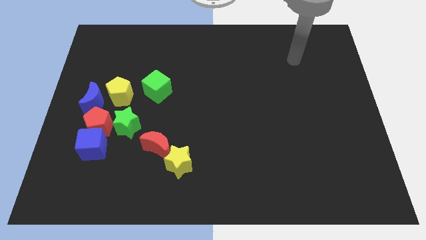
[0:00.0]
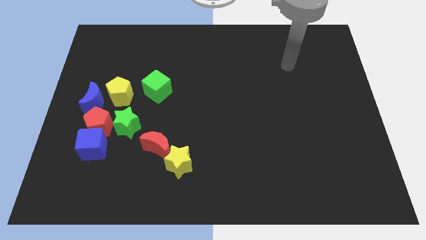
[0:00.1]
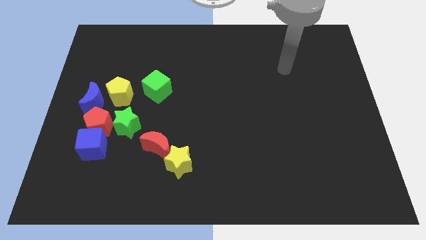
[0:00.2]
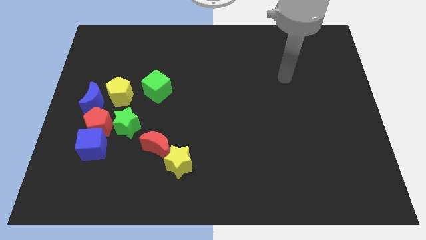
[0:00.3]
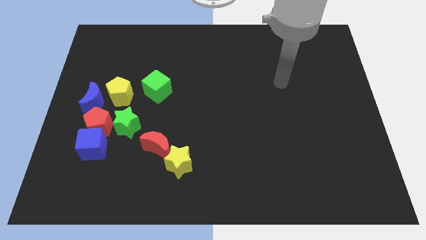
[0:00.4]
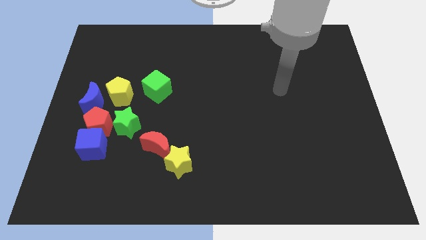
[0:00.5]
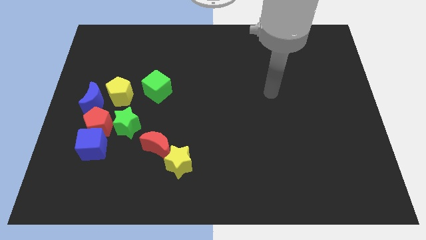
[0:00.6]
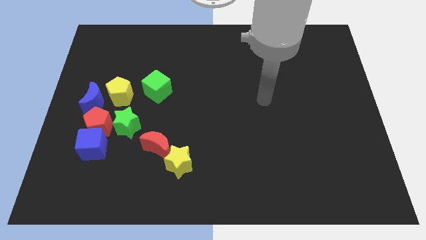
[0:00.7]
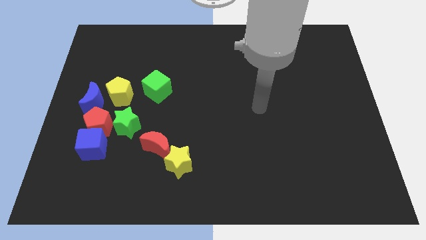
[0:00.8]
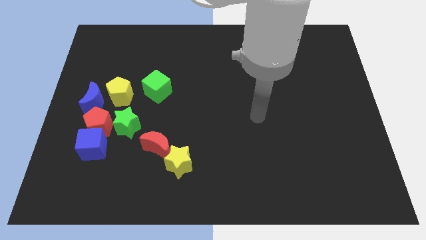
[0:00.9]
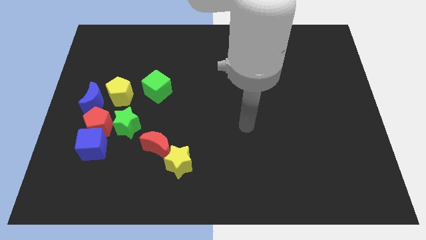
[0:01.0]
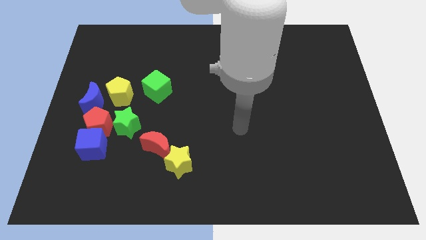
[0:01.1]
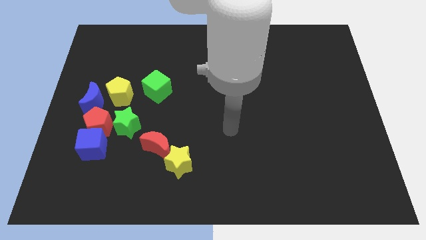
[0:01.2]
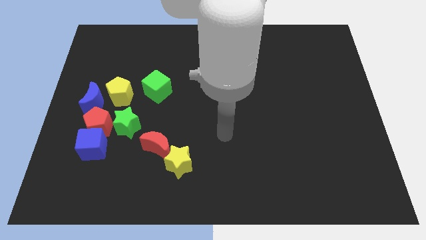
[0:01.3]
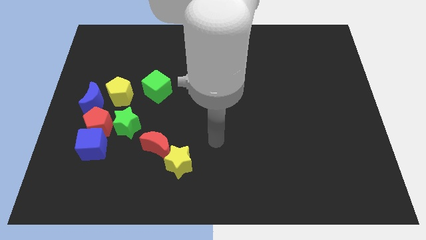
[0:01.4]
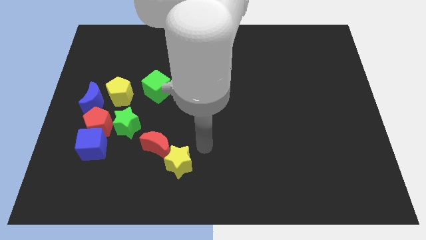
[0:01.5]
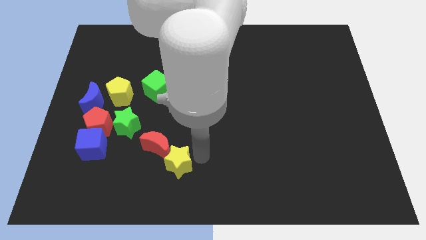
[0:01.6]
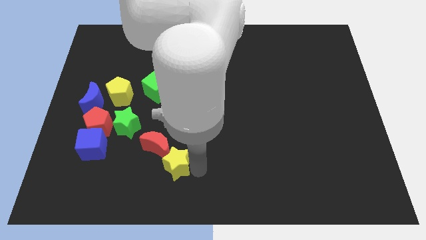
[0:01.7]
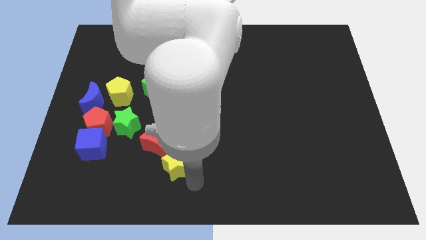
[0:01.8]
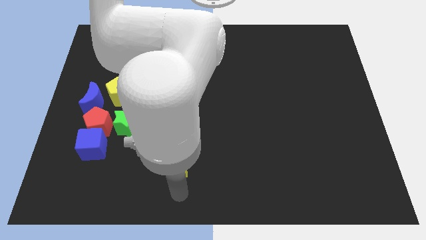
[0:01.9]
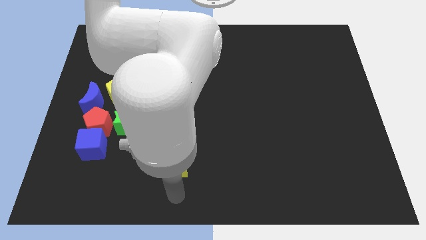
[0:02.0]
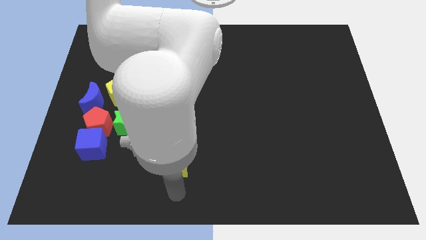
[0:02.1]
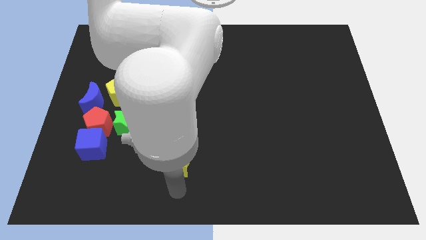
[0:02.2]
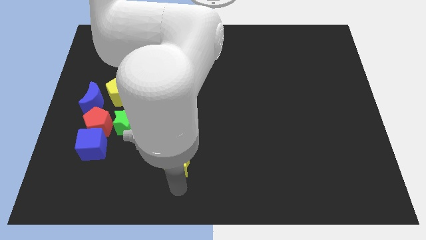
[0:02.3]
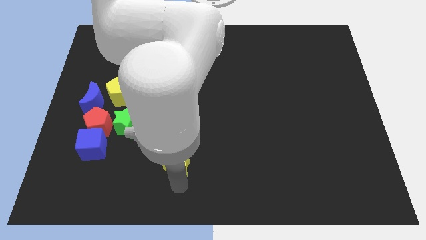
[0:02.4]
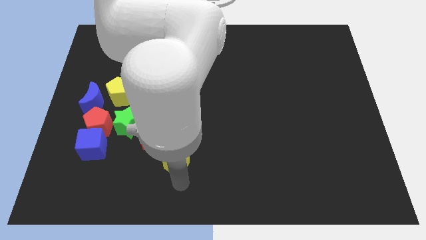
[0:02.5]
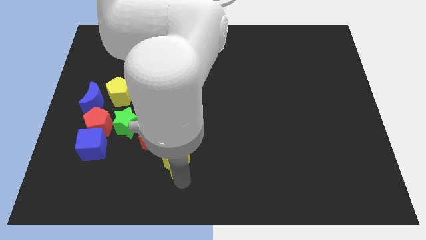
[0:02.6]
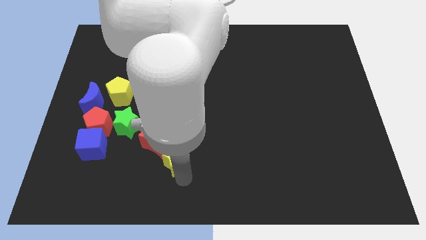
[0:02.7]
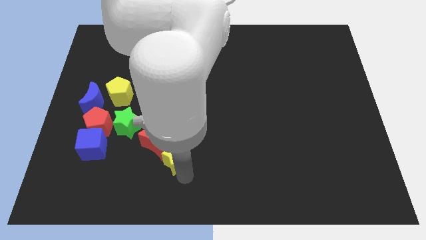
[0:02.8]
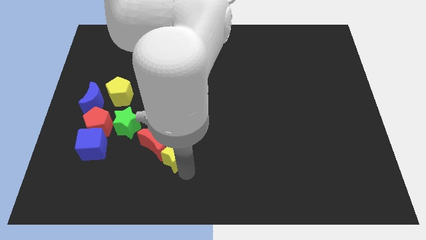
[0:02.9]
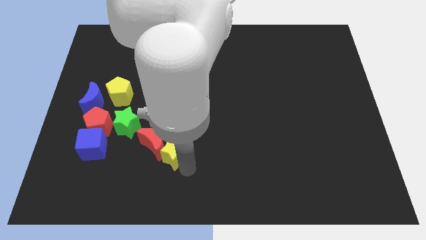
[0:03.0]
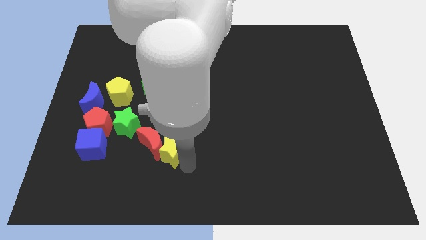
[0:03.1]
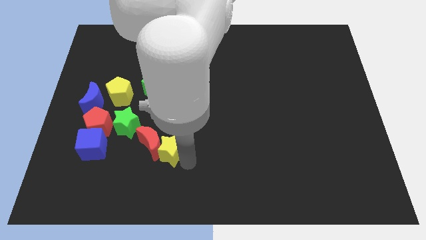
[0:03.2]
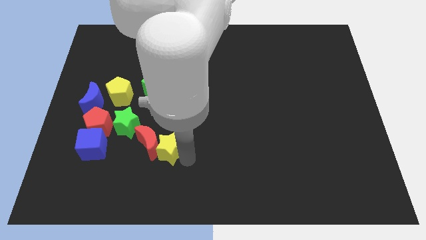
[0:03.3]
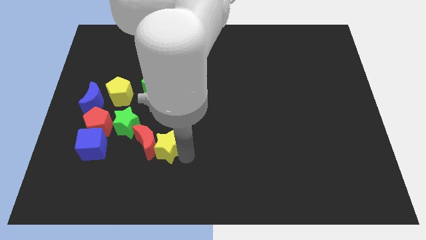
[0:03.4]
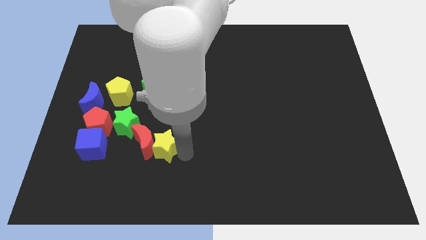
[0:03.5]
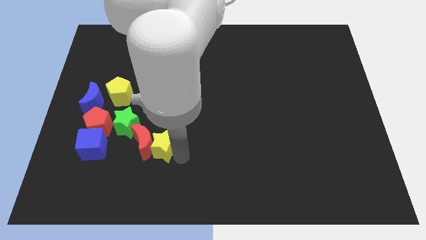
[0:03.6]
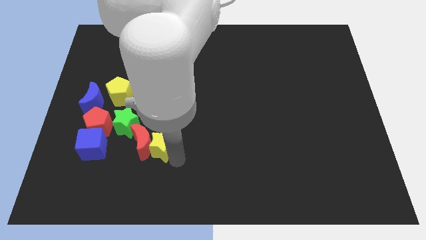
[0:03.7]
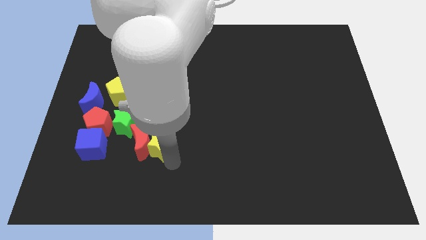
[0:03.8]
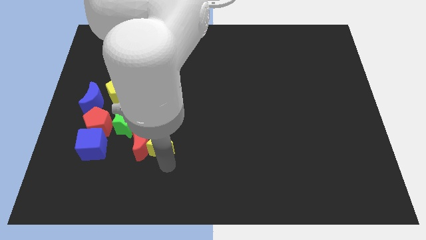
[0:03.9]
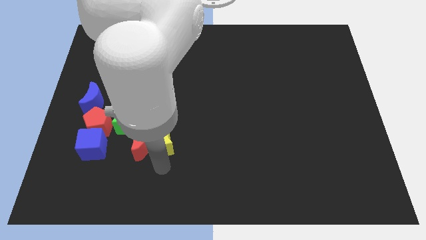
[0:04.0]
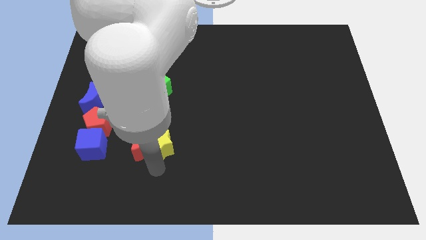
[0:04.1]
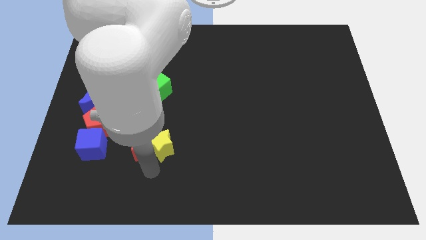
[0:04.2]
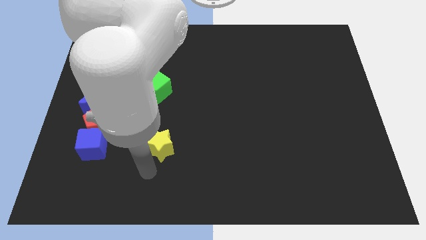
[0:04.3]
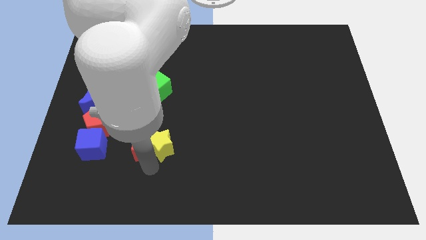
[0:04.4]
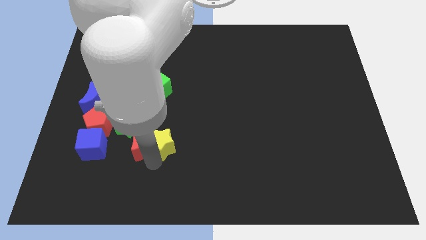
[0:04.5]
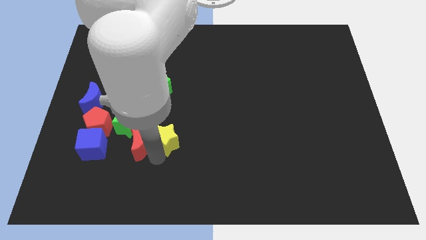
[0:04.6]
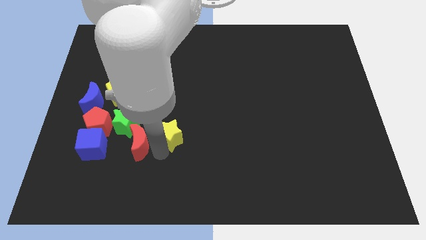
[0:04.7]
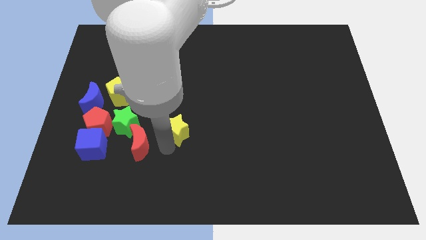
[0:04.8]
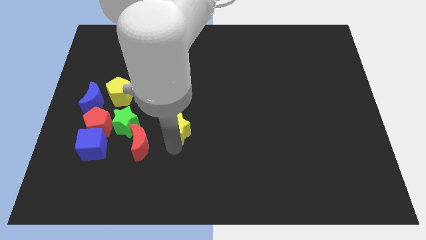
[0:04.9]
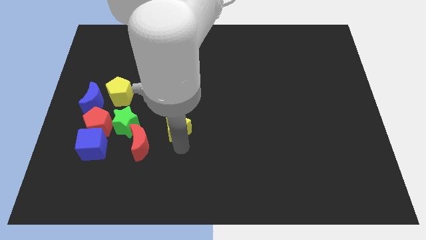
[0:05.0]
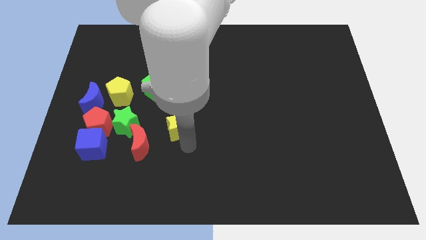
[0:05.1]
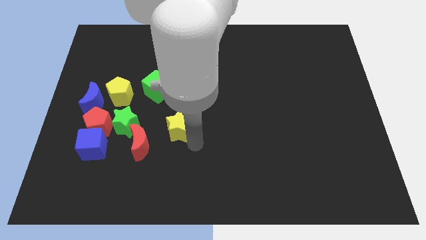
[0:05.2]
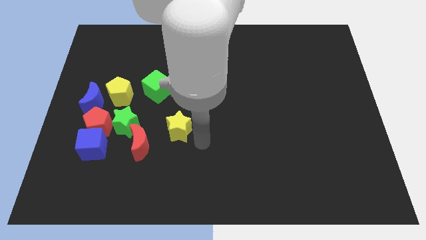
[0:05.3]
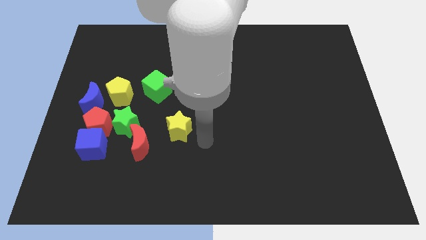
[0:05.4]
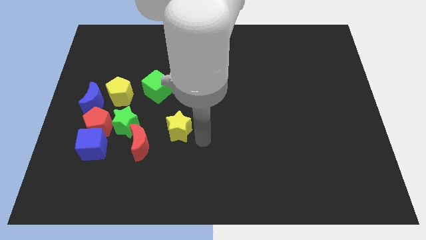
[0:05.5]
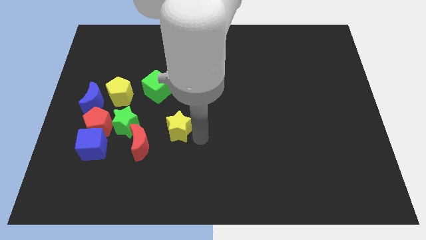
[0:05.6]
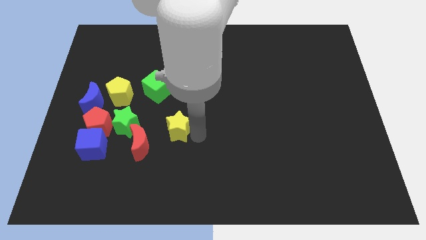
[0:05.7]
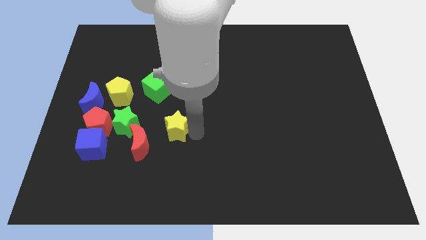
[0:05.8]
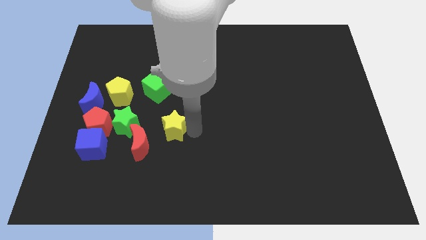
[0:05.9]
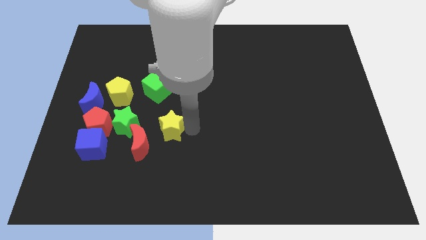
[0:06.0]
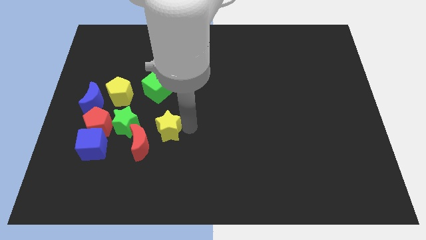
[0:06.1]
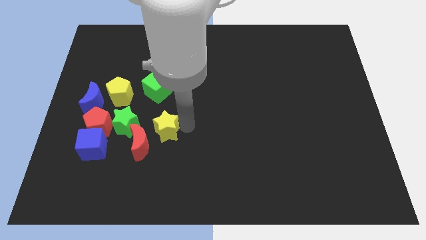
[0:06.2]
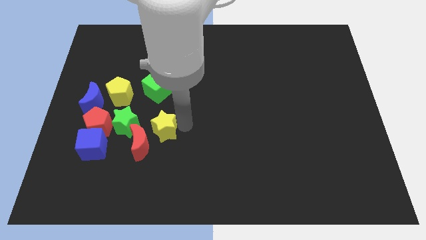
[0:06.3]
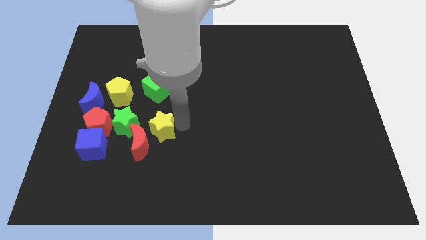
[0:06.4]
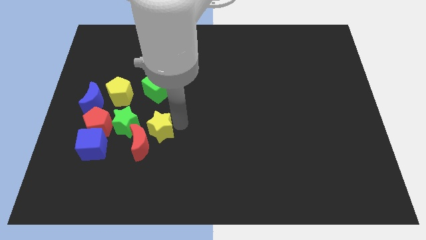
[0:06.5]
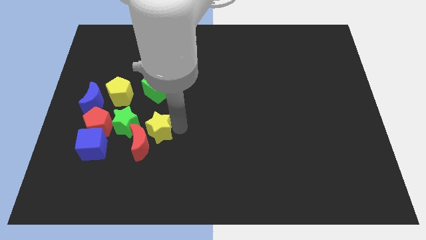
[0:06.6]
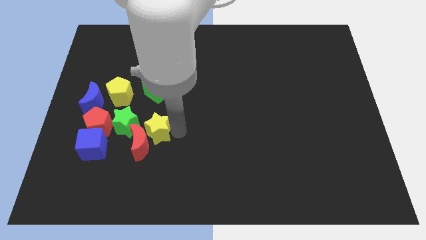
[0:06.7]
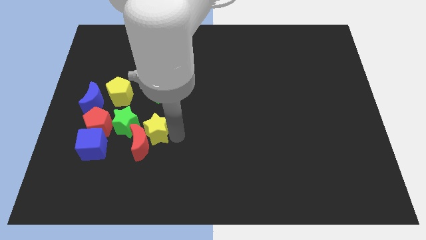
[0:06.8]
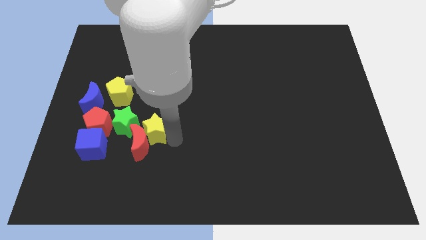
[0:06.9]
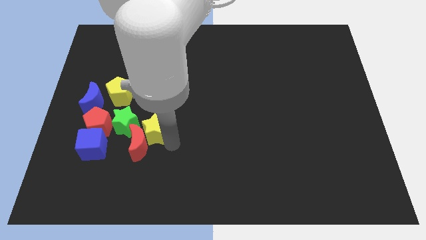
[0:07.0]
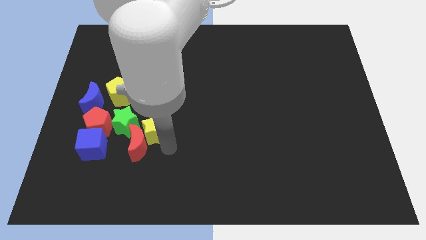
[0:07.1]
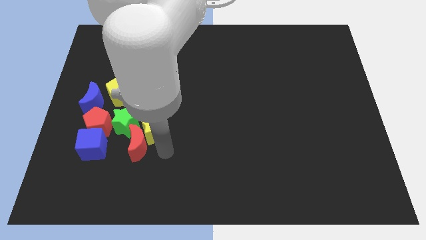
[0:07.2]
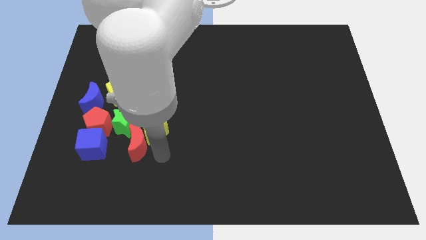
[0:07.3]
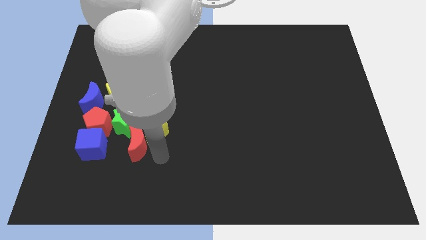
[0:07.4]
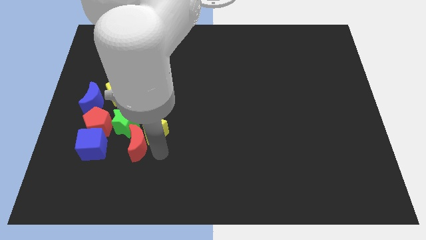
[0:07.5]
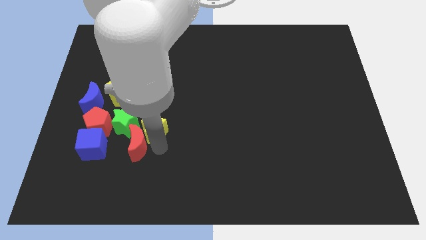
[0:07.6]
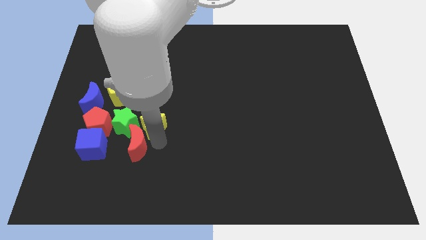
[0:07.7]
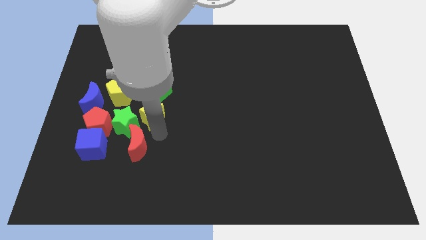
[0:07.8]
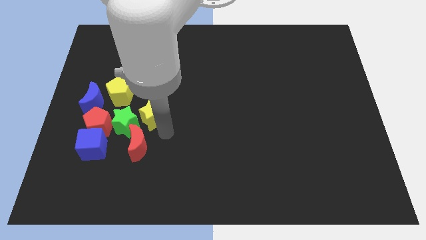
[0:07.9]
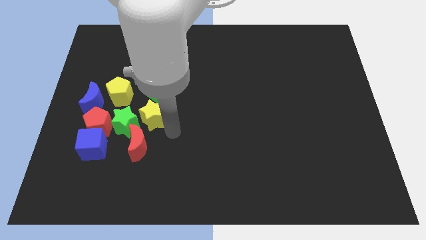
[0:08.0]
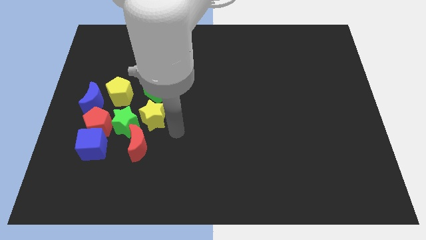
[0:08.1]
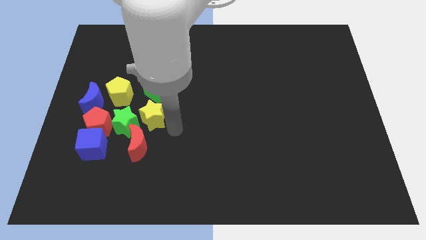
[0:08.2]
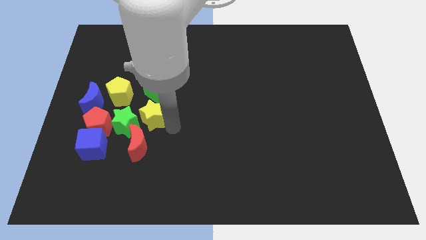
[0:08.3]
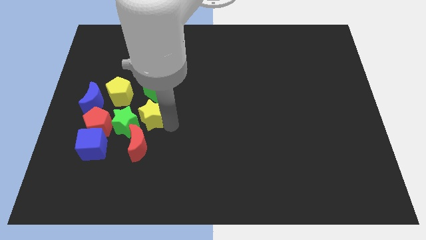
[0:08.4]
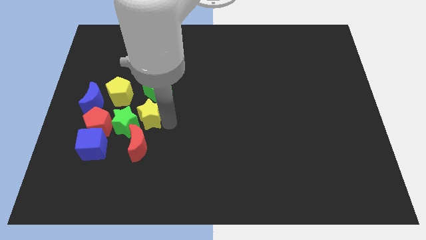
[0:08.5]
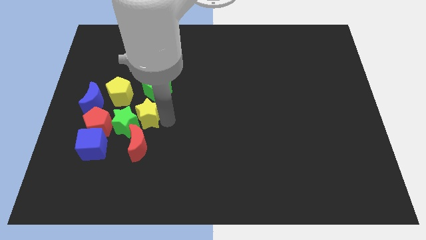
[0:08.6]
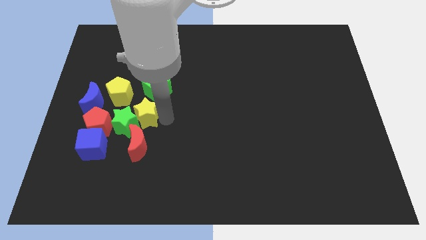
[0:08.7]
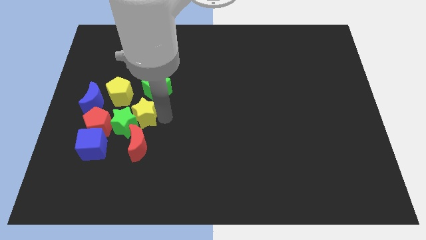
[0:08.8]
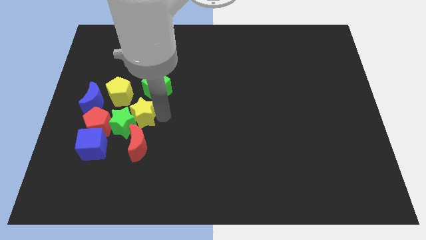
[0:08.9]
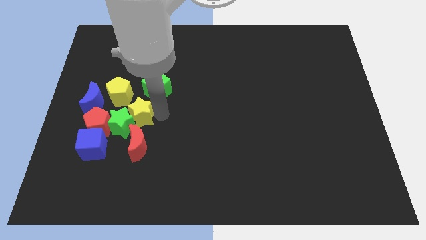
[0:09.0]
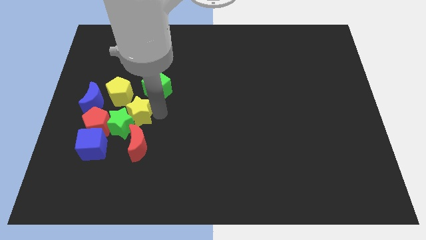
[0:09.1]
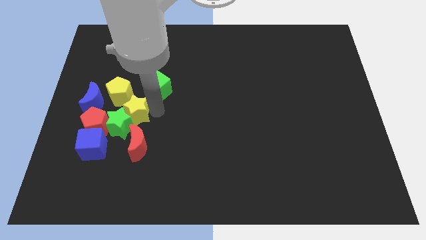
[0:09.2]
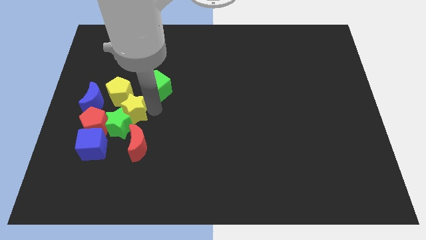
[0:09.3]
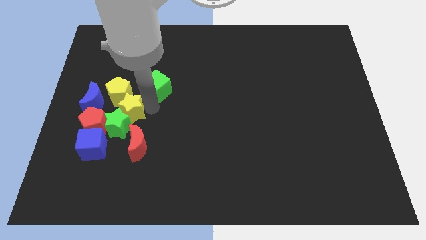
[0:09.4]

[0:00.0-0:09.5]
put the yellow star close to the yellow pentagon
